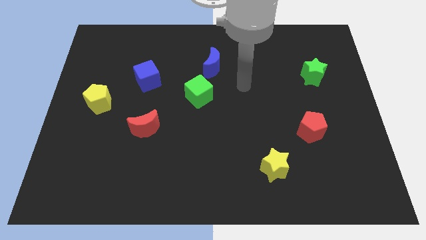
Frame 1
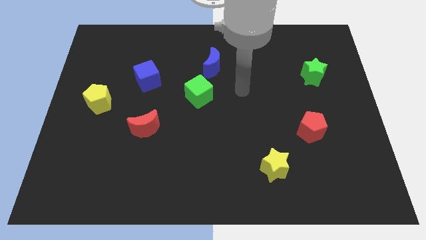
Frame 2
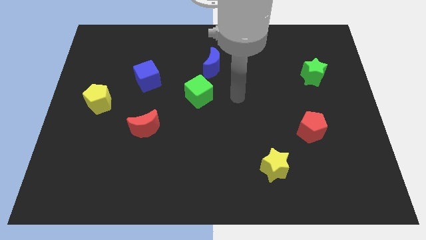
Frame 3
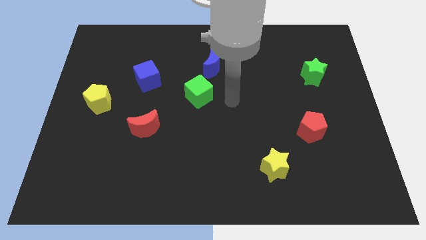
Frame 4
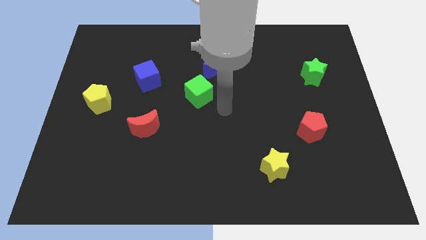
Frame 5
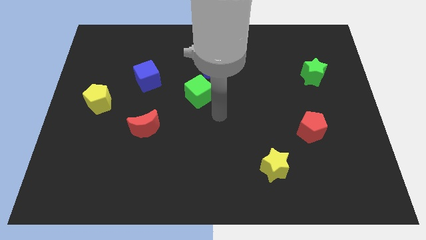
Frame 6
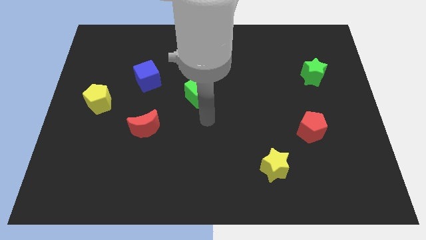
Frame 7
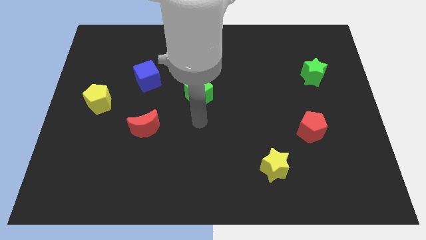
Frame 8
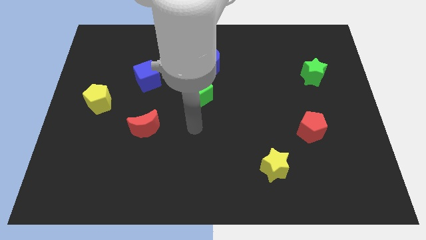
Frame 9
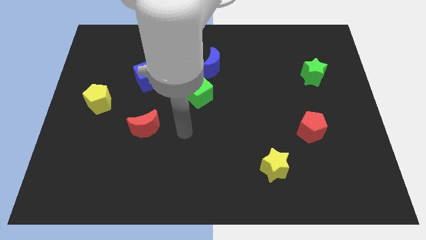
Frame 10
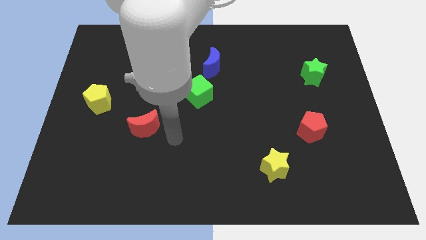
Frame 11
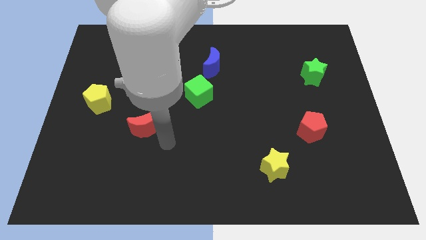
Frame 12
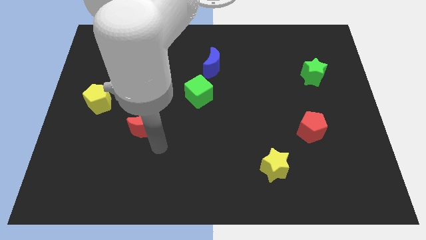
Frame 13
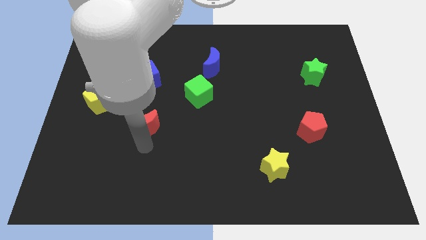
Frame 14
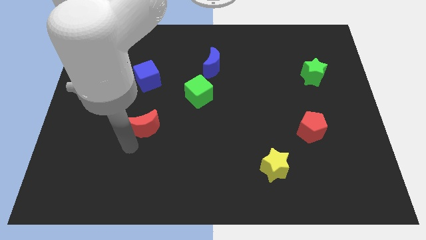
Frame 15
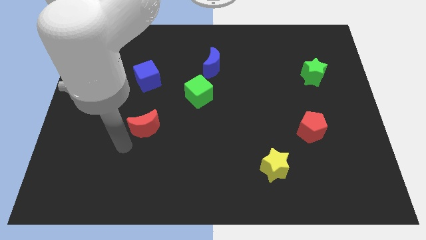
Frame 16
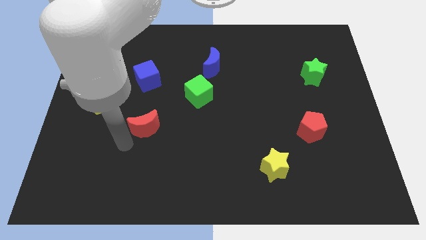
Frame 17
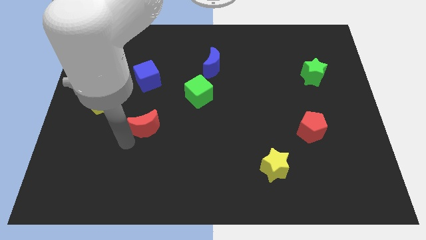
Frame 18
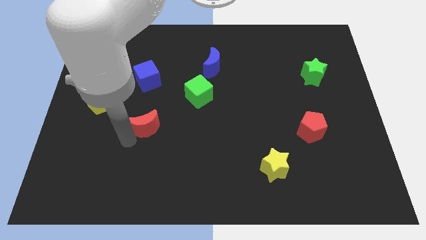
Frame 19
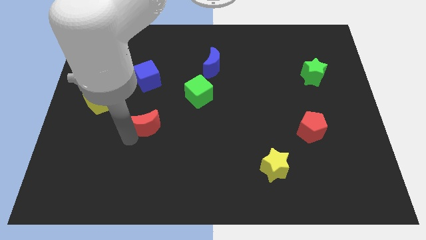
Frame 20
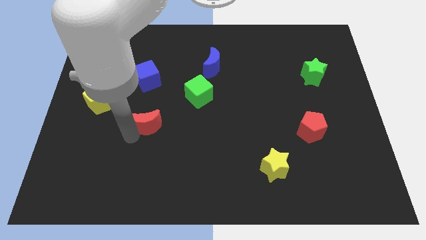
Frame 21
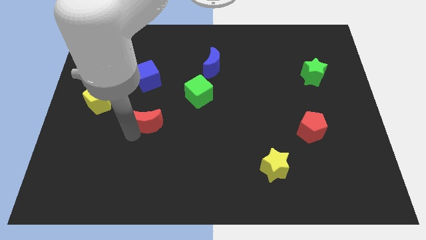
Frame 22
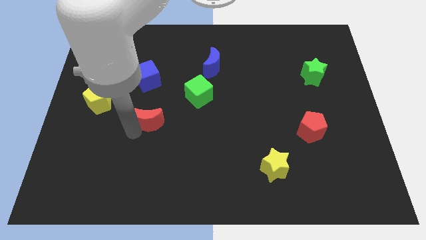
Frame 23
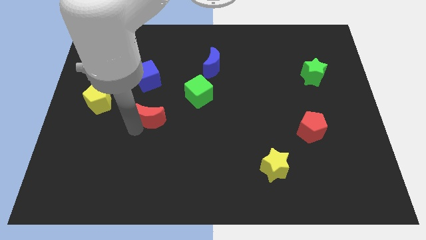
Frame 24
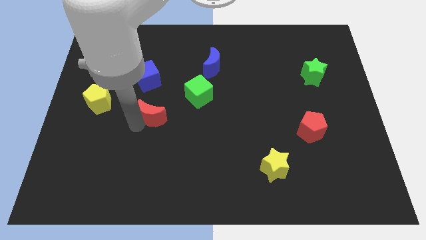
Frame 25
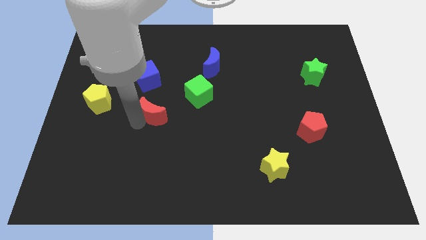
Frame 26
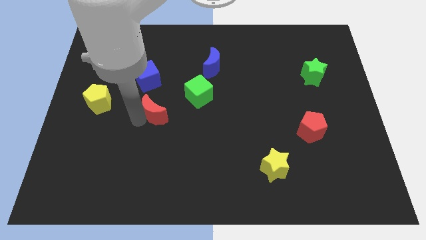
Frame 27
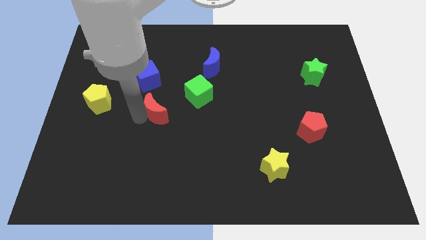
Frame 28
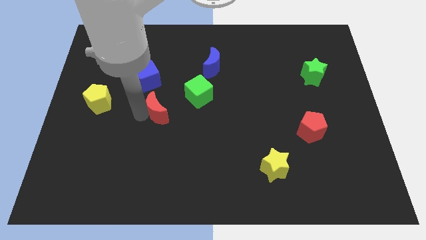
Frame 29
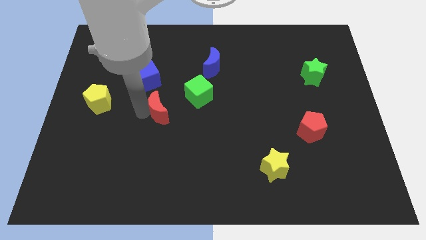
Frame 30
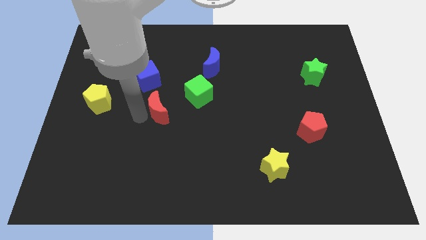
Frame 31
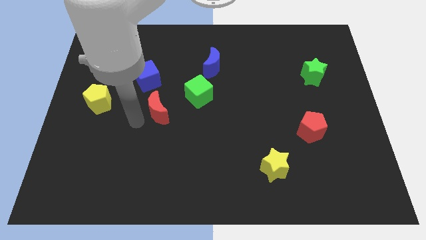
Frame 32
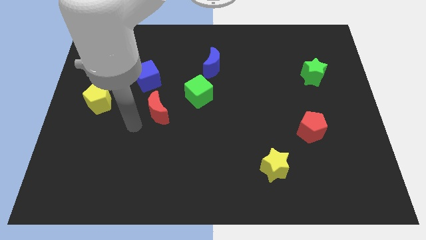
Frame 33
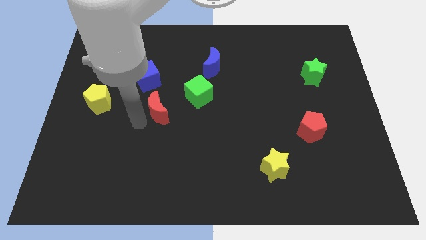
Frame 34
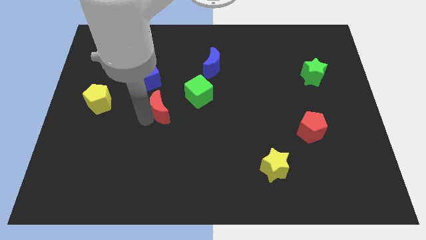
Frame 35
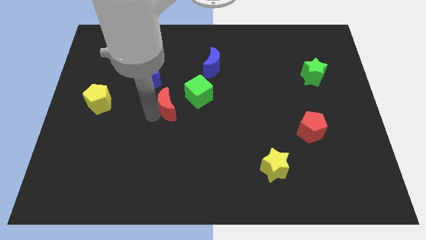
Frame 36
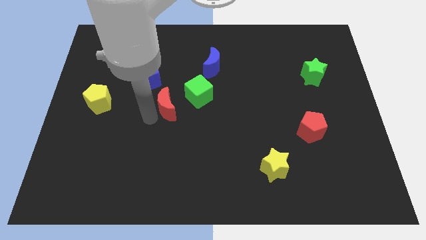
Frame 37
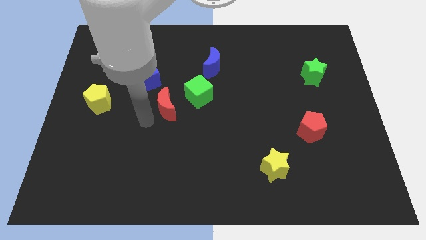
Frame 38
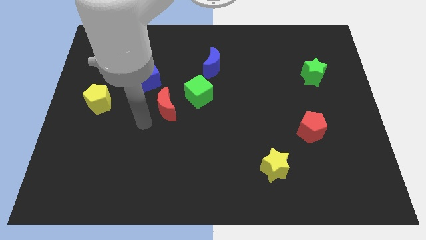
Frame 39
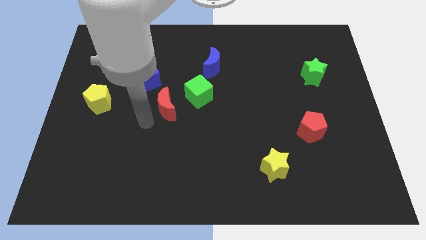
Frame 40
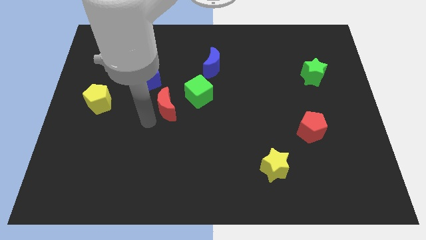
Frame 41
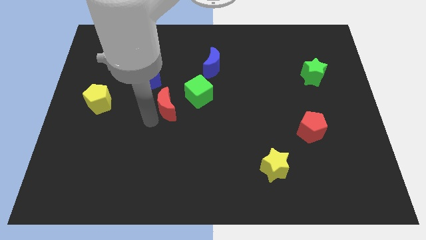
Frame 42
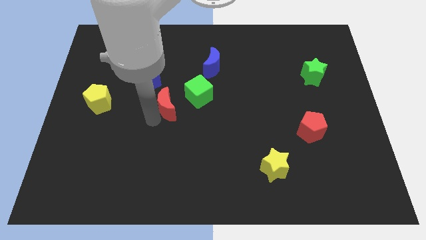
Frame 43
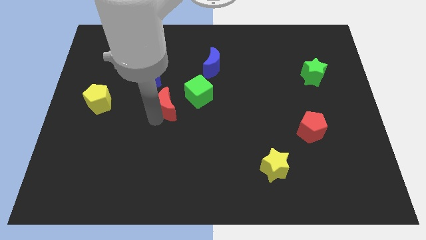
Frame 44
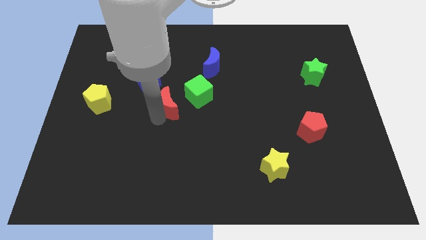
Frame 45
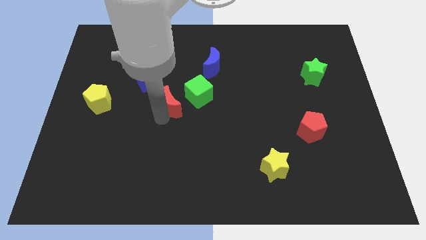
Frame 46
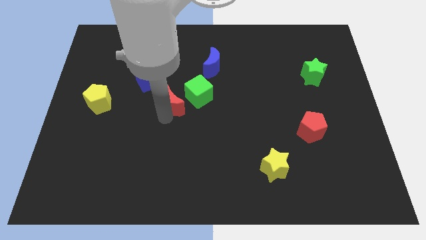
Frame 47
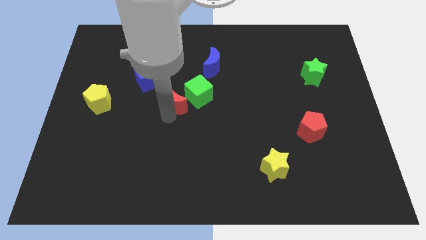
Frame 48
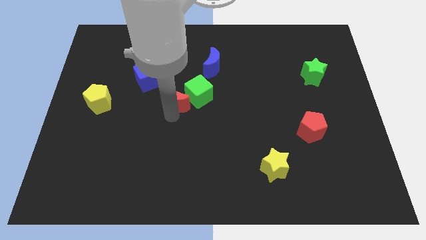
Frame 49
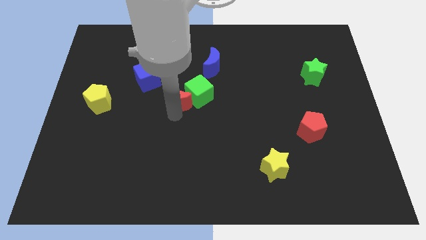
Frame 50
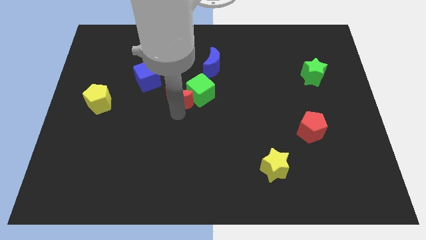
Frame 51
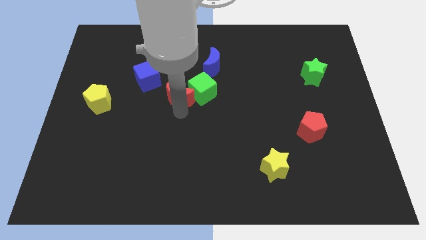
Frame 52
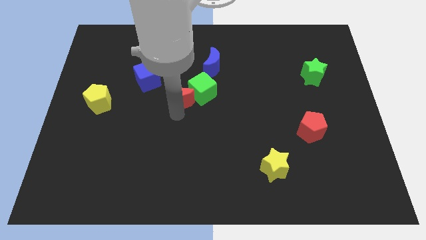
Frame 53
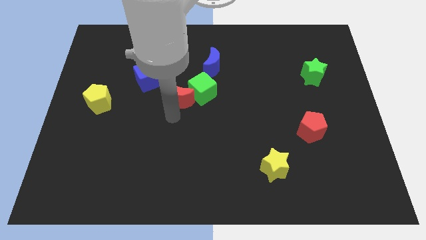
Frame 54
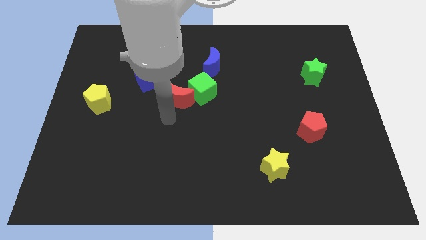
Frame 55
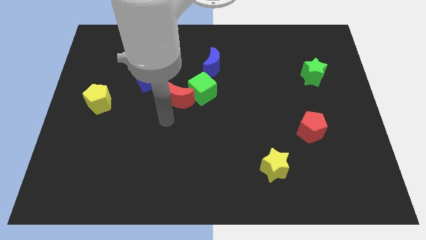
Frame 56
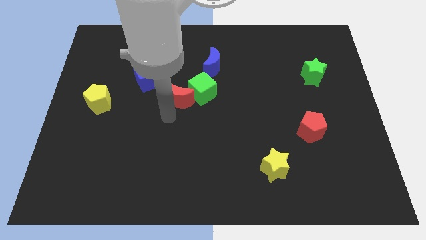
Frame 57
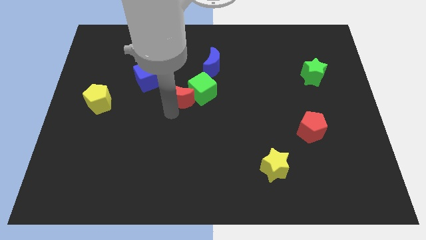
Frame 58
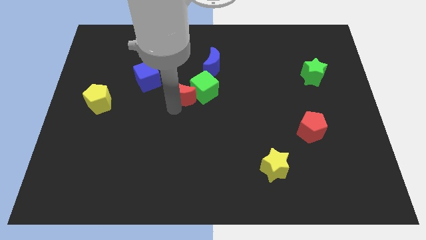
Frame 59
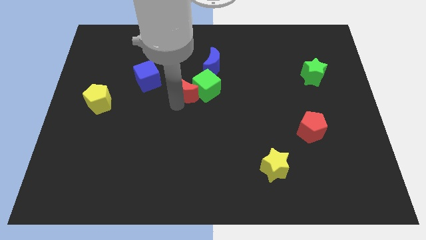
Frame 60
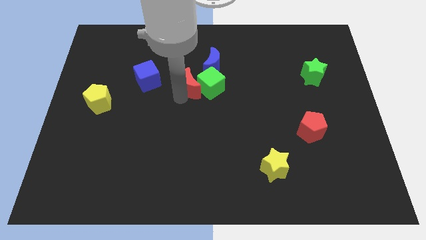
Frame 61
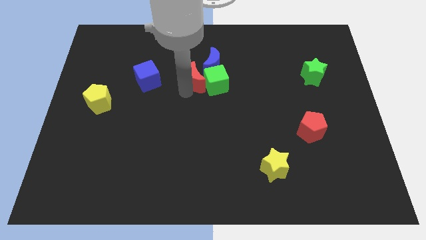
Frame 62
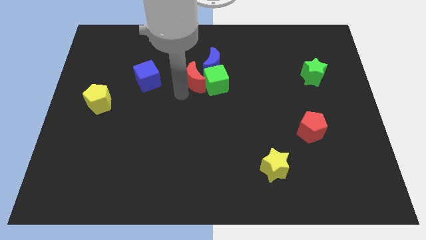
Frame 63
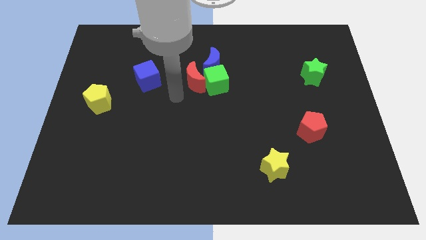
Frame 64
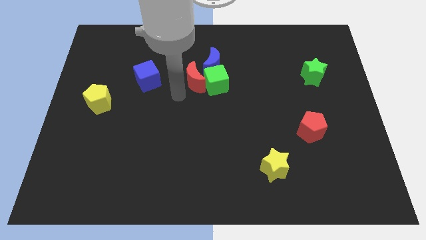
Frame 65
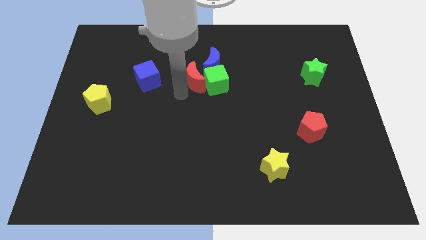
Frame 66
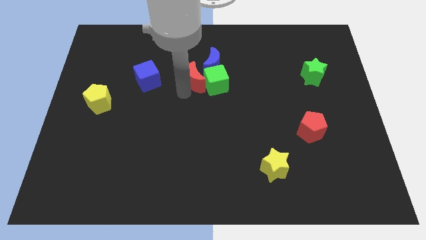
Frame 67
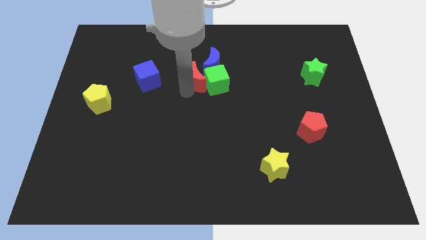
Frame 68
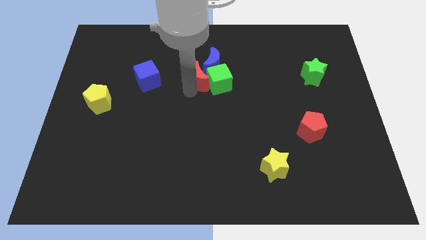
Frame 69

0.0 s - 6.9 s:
move the red moon close to the blue moon

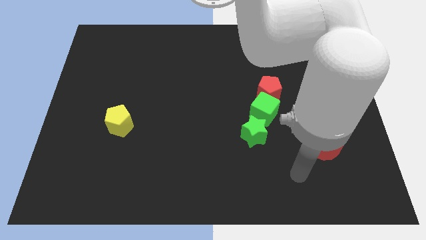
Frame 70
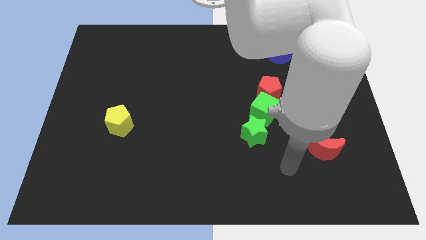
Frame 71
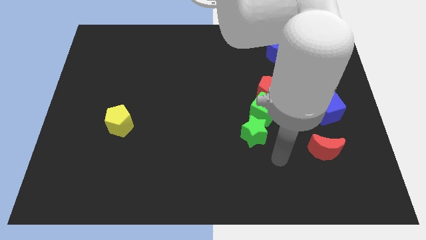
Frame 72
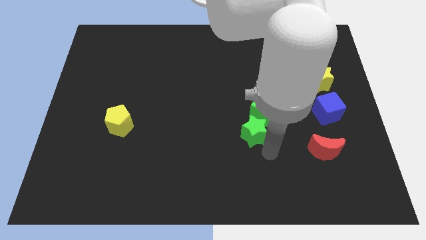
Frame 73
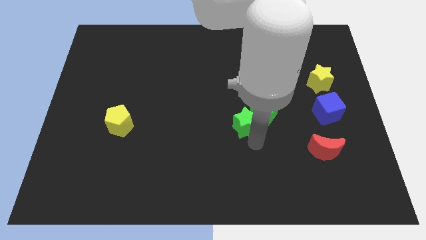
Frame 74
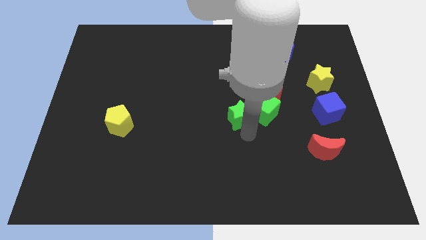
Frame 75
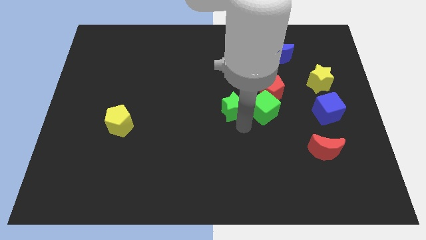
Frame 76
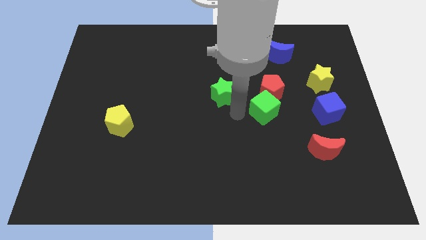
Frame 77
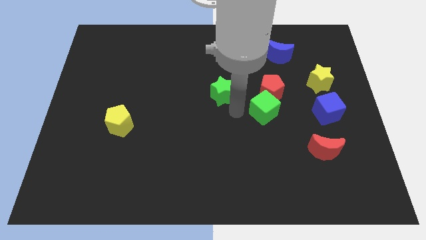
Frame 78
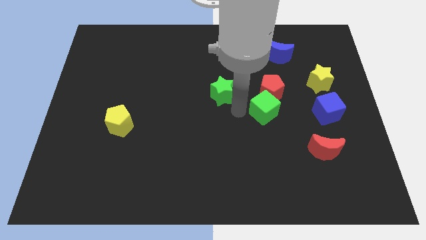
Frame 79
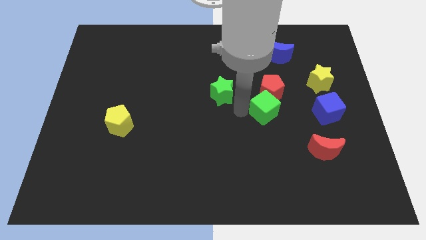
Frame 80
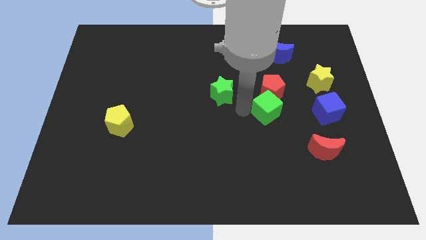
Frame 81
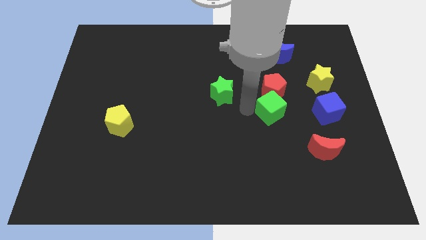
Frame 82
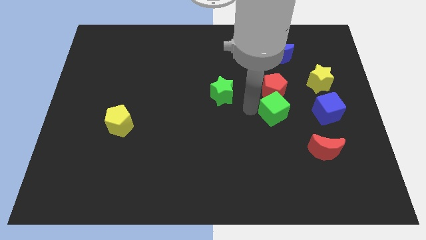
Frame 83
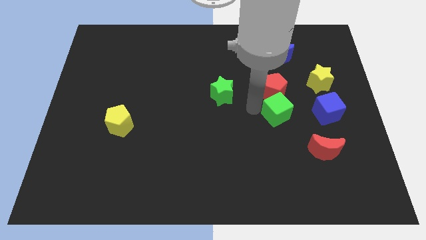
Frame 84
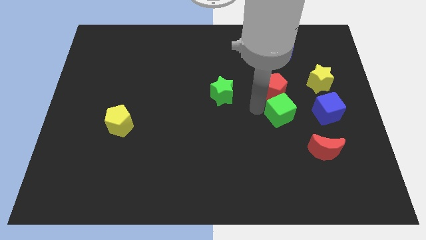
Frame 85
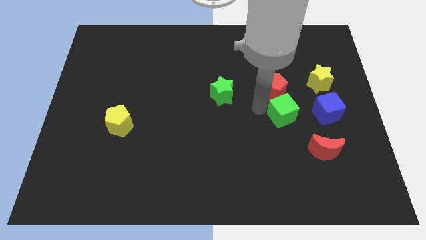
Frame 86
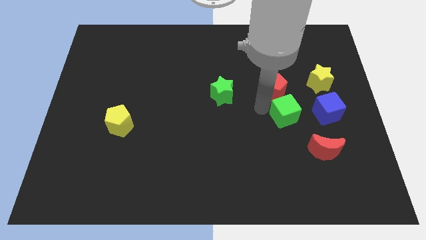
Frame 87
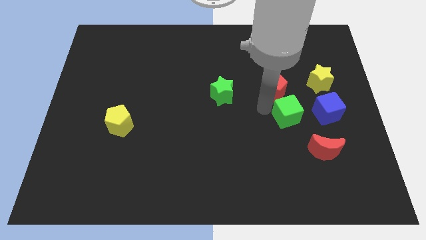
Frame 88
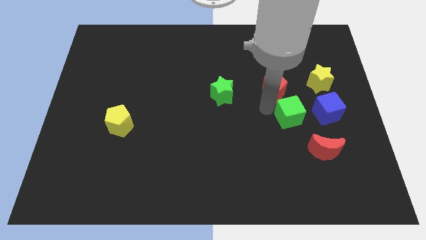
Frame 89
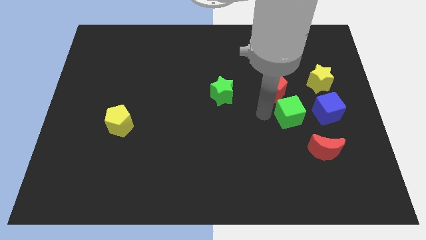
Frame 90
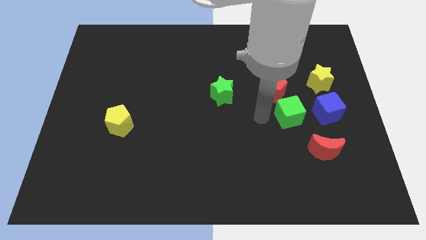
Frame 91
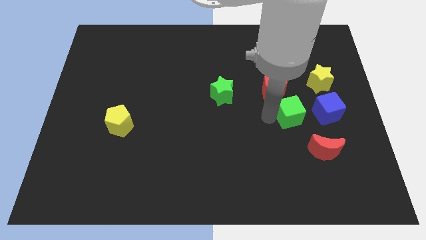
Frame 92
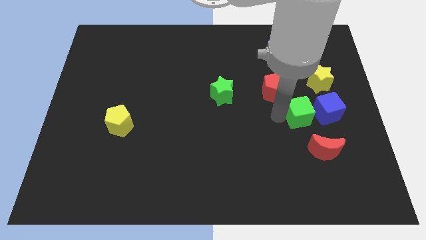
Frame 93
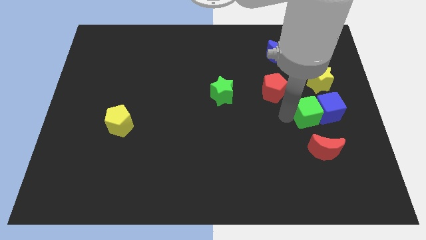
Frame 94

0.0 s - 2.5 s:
slide the green cube next to the blue cube
